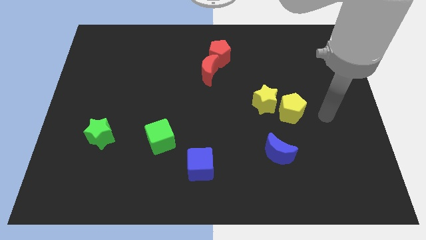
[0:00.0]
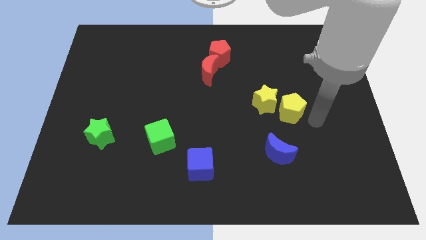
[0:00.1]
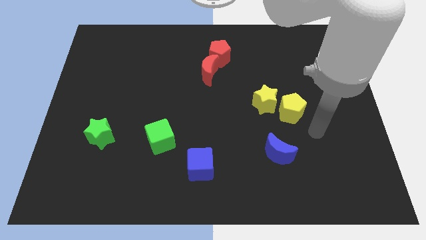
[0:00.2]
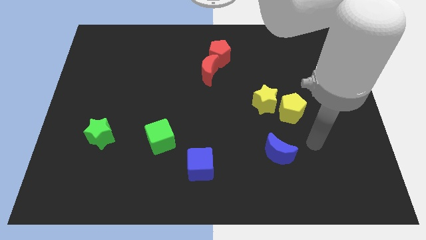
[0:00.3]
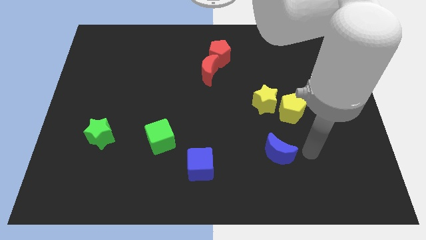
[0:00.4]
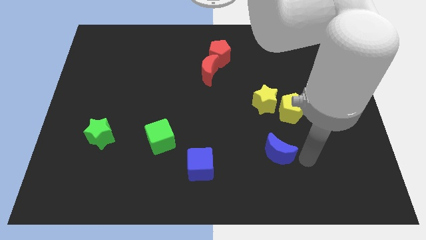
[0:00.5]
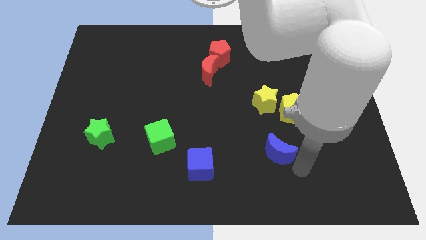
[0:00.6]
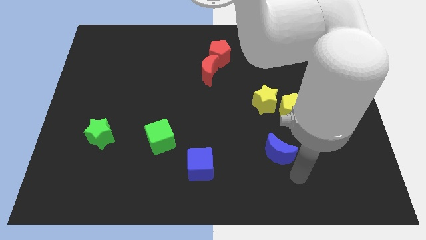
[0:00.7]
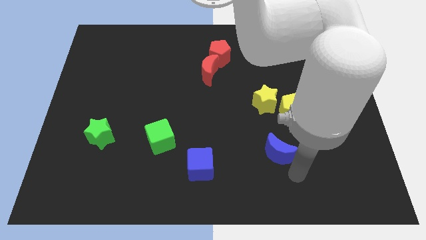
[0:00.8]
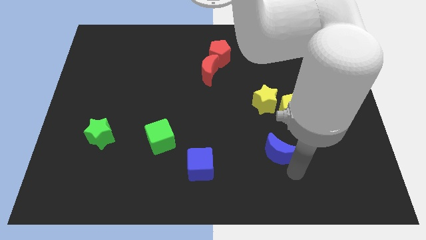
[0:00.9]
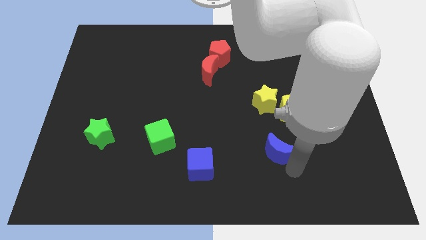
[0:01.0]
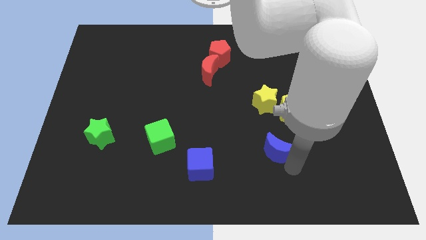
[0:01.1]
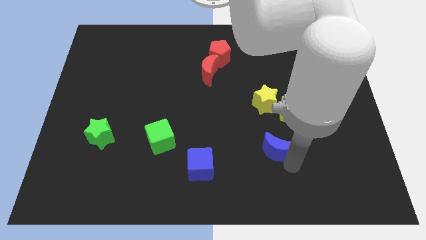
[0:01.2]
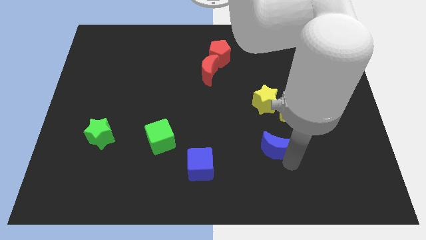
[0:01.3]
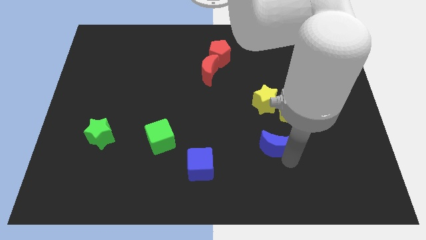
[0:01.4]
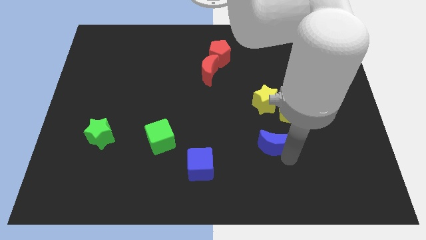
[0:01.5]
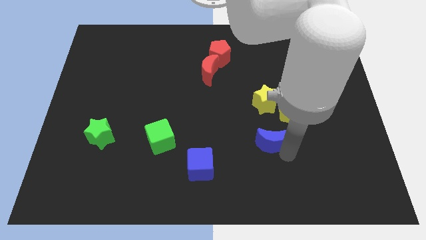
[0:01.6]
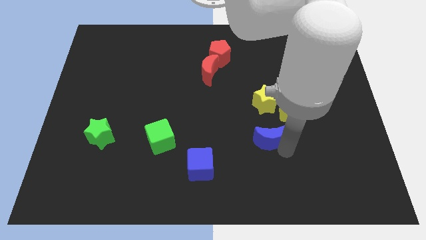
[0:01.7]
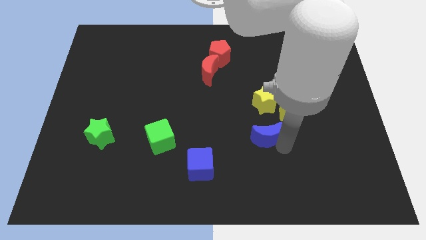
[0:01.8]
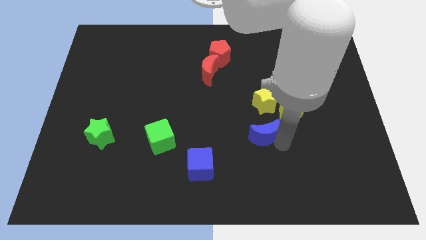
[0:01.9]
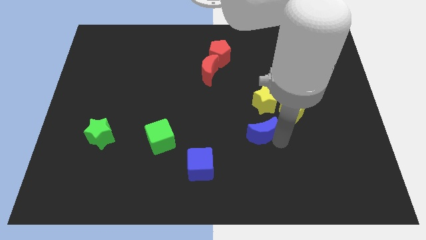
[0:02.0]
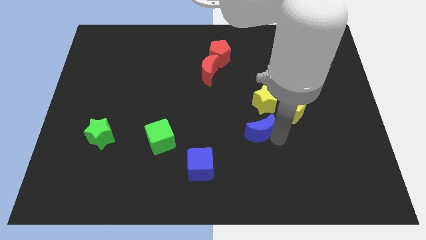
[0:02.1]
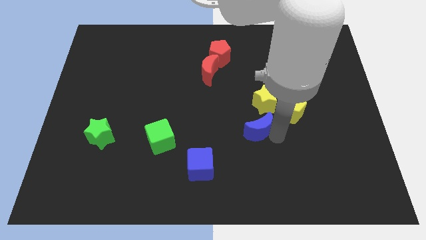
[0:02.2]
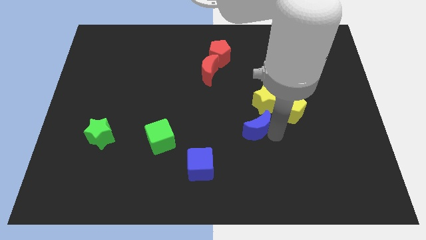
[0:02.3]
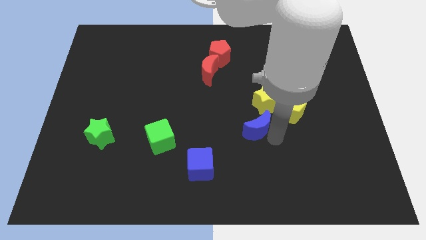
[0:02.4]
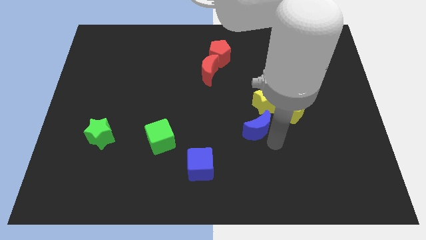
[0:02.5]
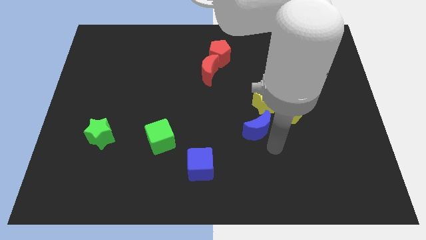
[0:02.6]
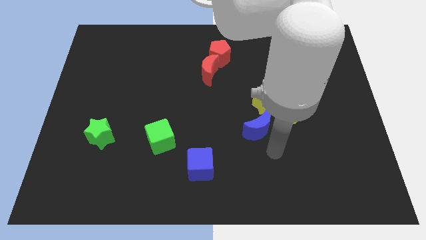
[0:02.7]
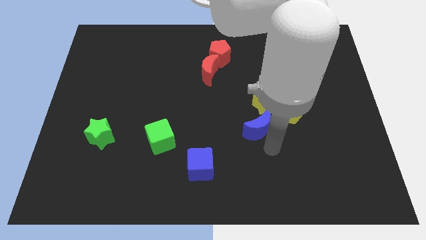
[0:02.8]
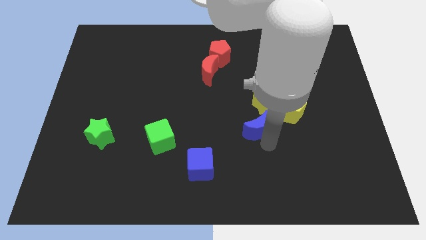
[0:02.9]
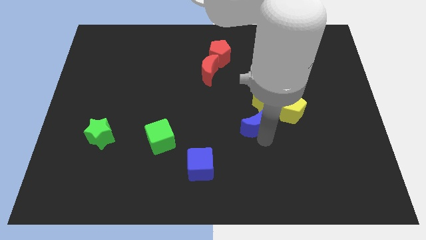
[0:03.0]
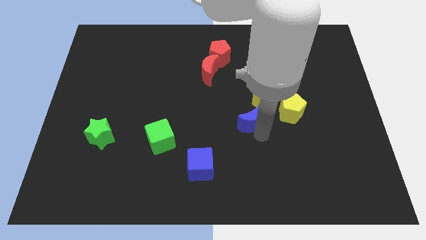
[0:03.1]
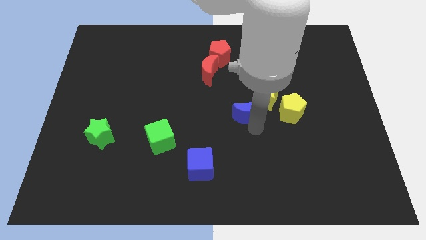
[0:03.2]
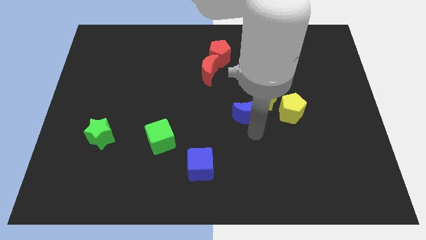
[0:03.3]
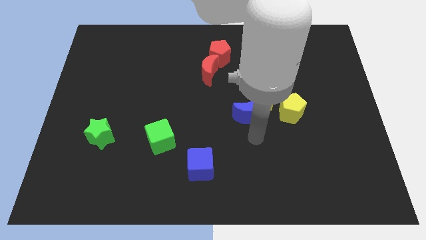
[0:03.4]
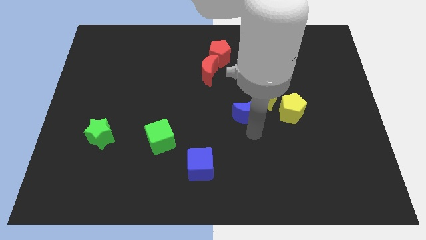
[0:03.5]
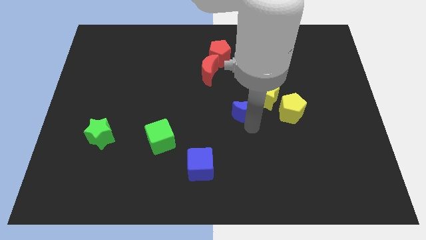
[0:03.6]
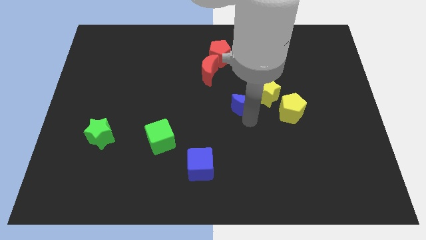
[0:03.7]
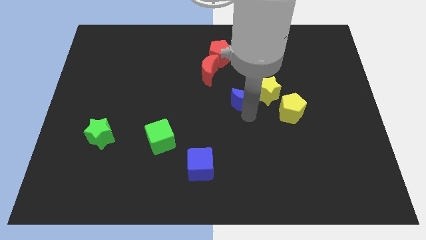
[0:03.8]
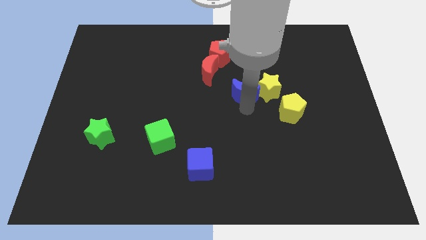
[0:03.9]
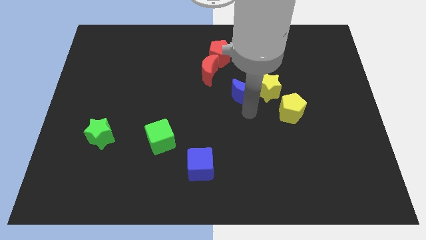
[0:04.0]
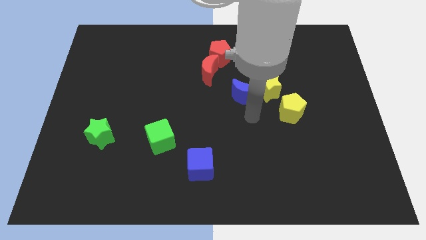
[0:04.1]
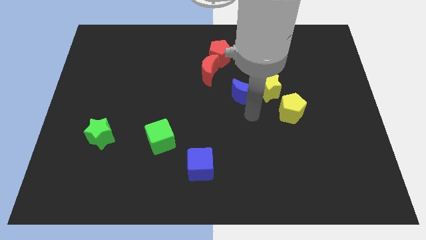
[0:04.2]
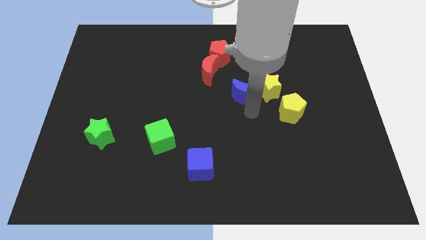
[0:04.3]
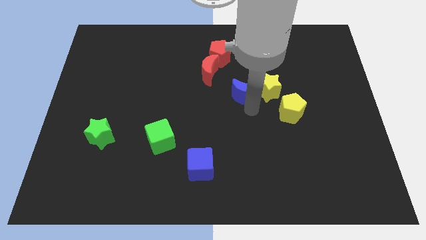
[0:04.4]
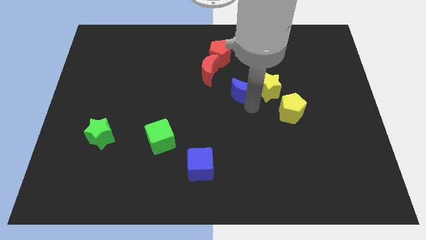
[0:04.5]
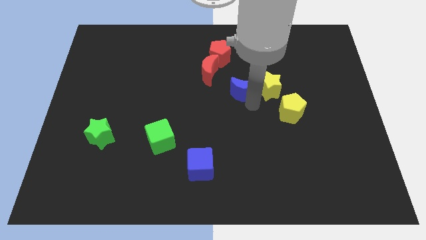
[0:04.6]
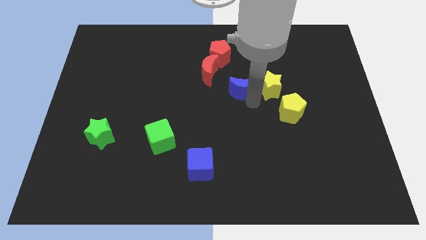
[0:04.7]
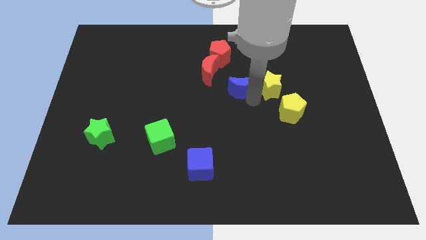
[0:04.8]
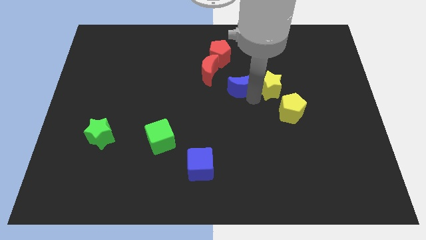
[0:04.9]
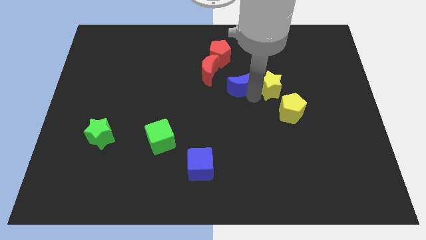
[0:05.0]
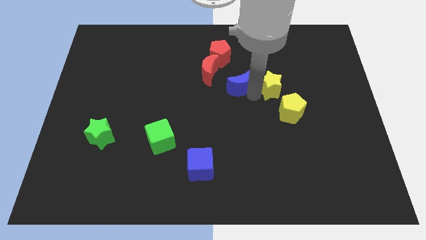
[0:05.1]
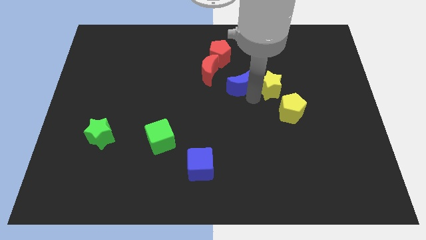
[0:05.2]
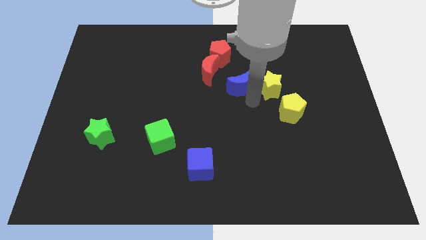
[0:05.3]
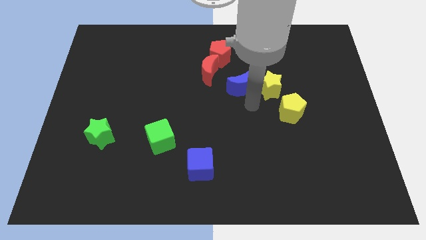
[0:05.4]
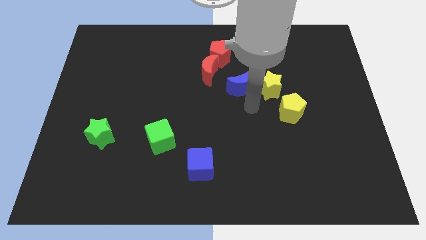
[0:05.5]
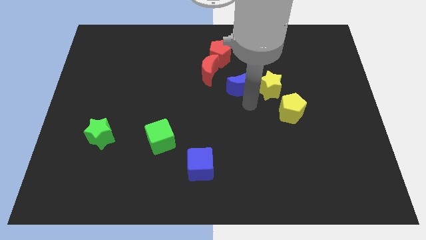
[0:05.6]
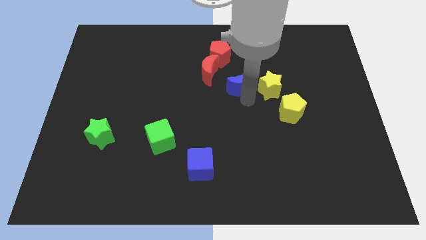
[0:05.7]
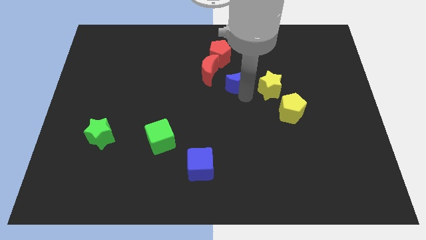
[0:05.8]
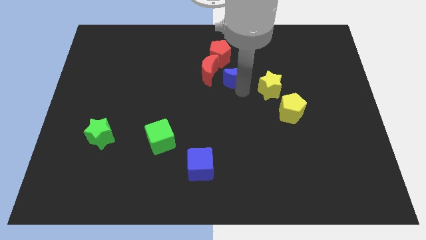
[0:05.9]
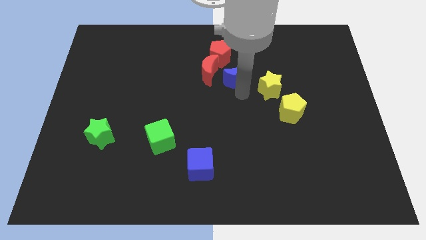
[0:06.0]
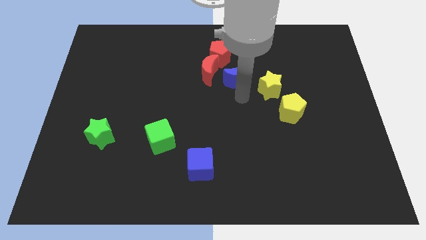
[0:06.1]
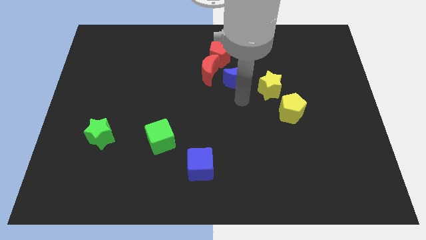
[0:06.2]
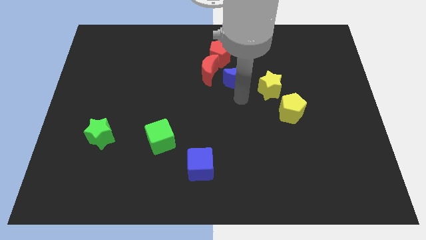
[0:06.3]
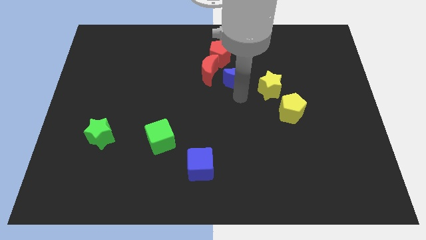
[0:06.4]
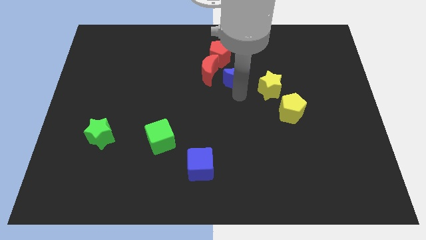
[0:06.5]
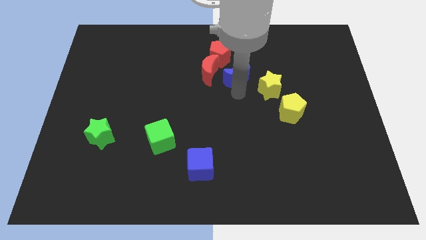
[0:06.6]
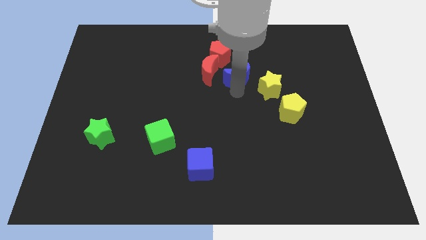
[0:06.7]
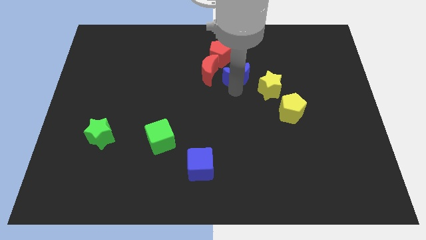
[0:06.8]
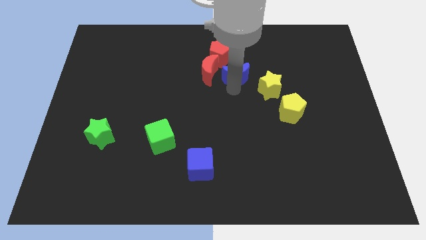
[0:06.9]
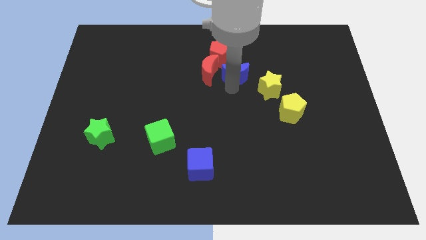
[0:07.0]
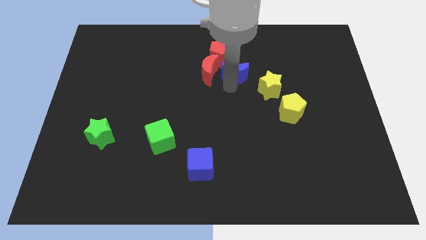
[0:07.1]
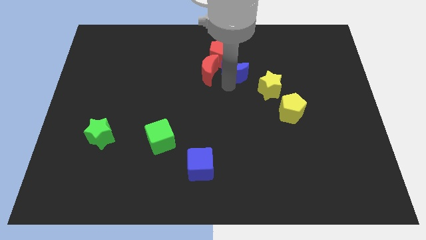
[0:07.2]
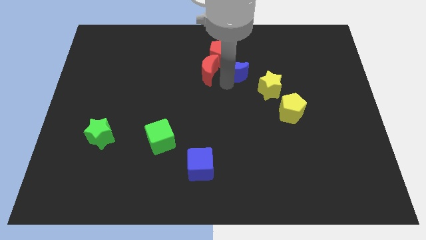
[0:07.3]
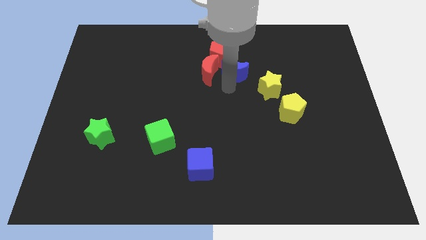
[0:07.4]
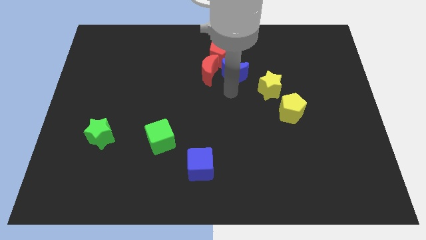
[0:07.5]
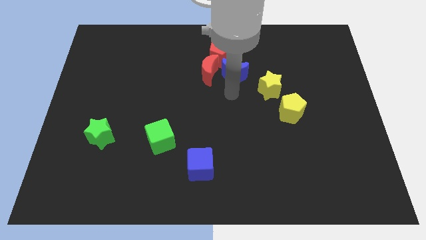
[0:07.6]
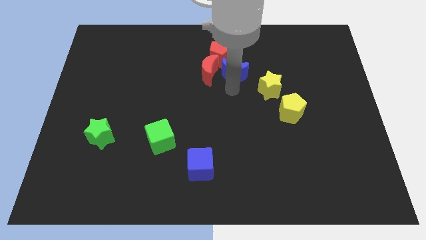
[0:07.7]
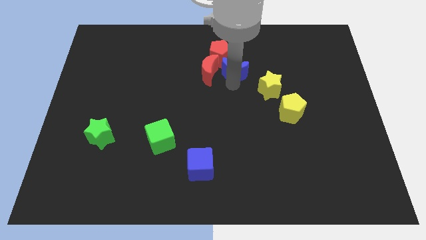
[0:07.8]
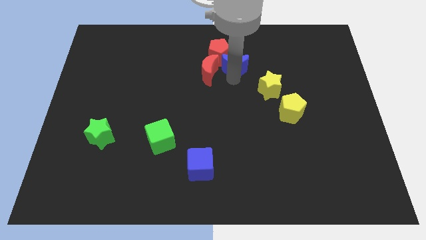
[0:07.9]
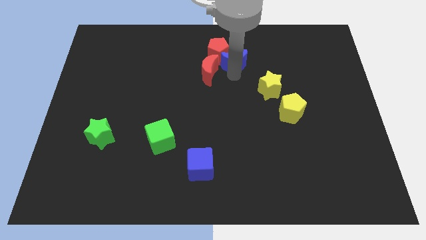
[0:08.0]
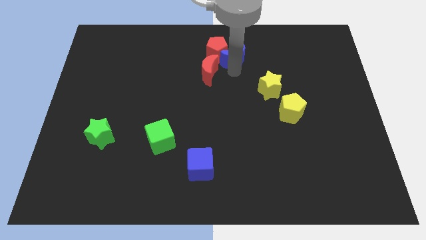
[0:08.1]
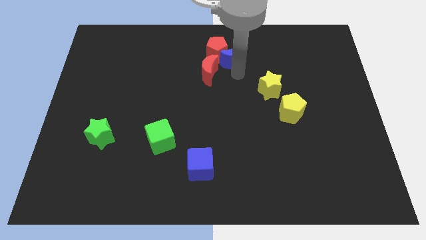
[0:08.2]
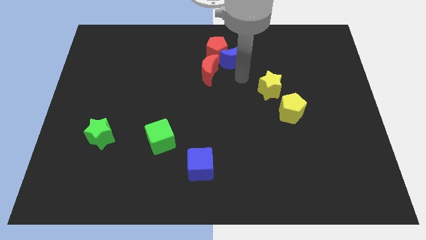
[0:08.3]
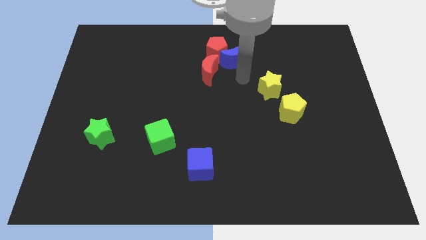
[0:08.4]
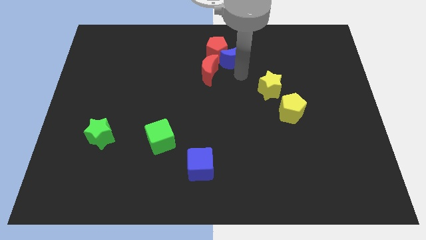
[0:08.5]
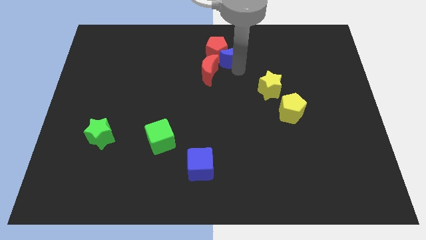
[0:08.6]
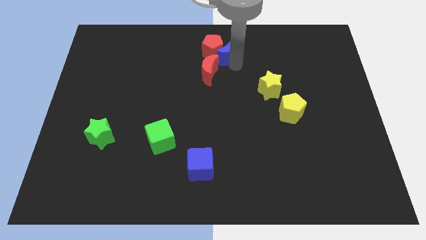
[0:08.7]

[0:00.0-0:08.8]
slide the blue moon to the top side
